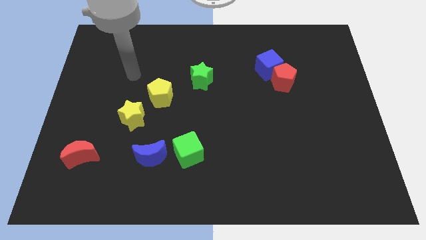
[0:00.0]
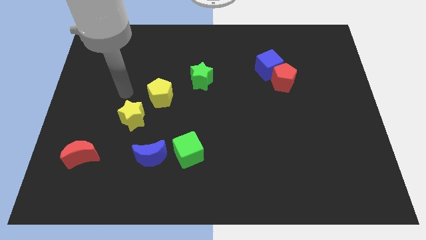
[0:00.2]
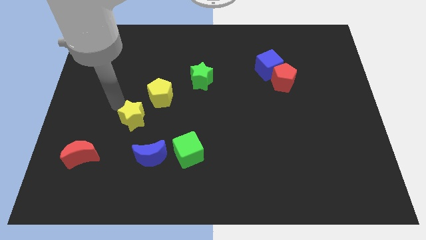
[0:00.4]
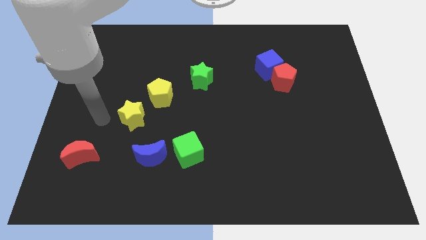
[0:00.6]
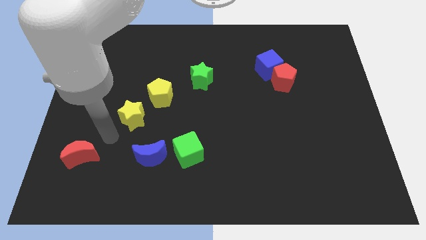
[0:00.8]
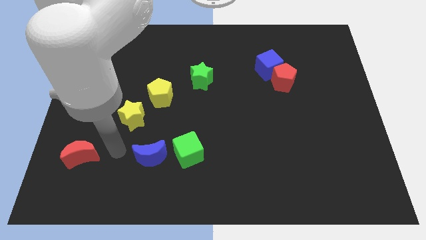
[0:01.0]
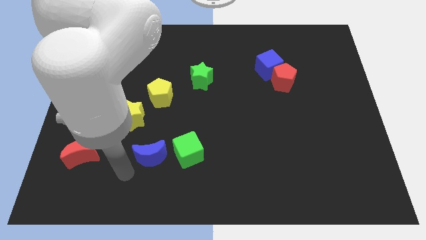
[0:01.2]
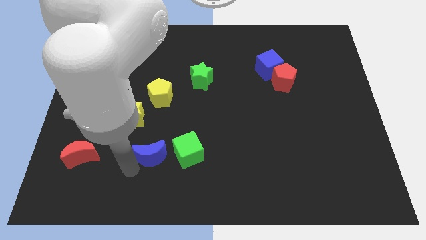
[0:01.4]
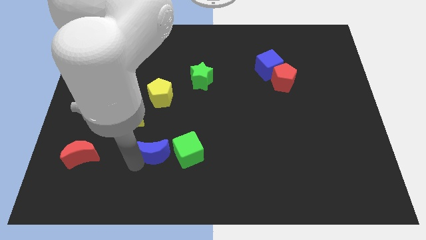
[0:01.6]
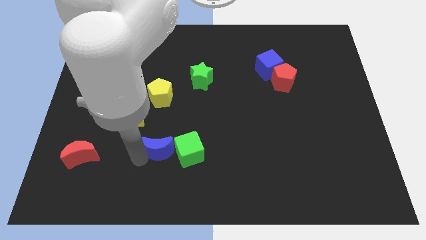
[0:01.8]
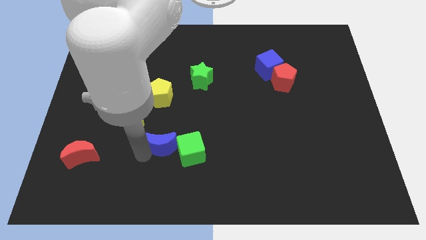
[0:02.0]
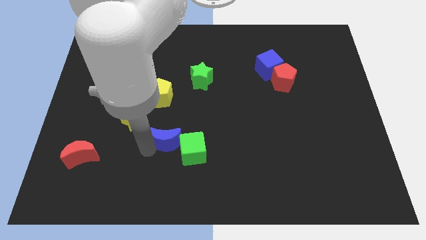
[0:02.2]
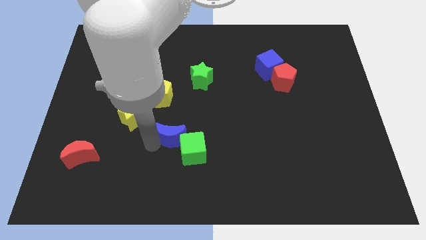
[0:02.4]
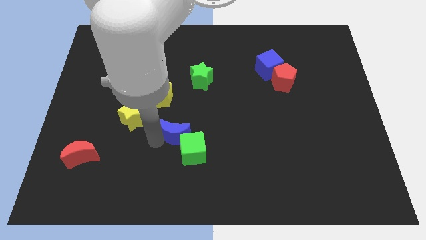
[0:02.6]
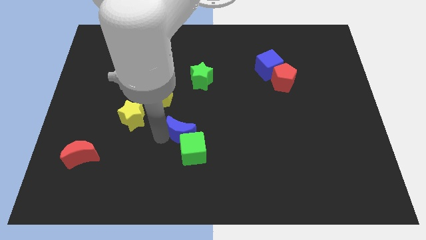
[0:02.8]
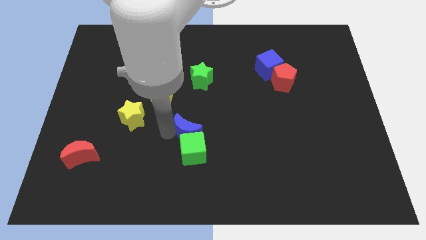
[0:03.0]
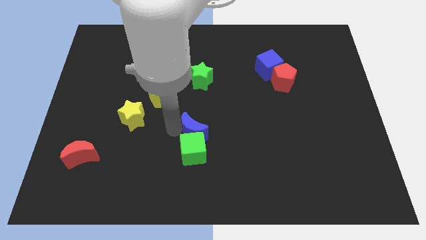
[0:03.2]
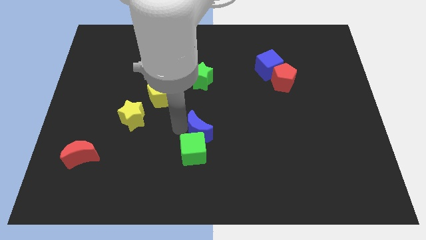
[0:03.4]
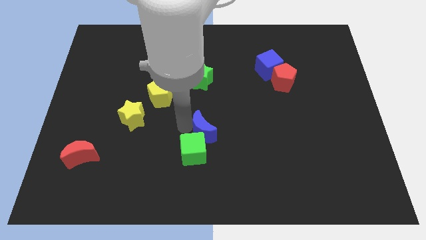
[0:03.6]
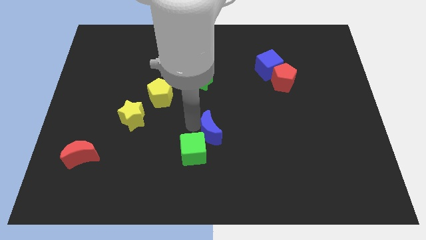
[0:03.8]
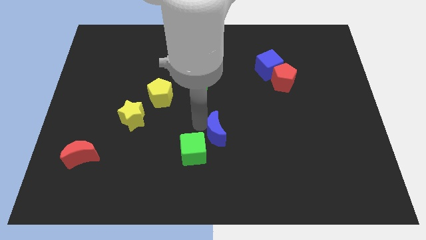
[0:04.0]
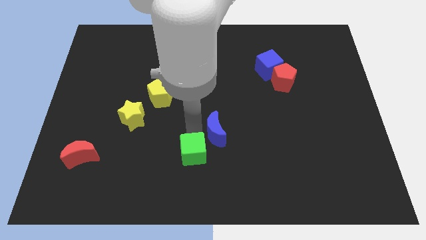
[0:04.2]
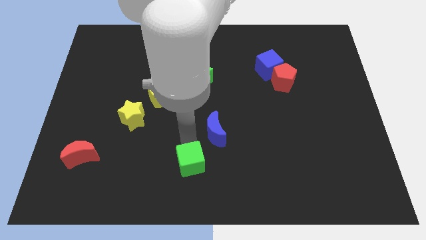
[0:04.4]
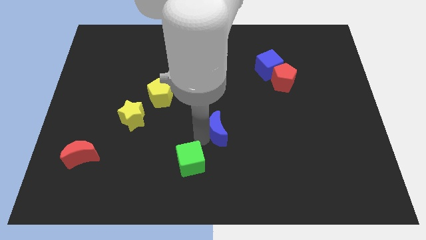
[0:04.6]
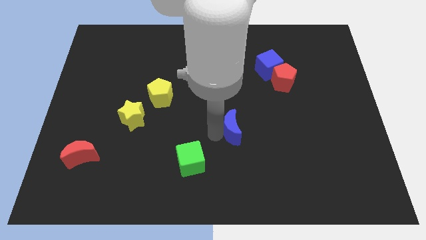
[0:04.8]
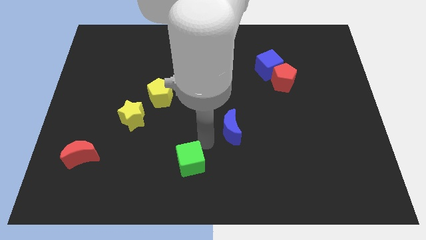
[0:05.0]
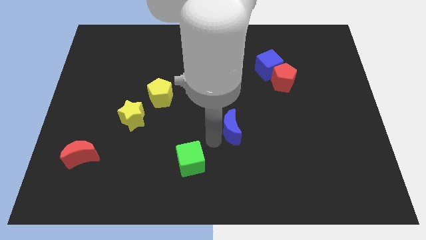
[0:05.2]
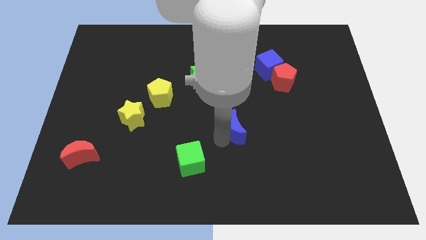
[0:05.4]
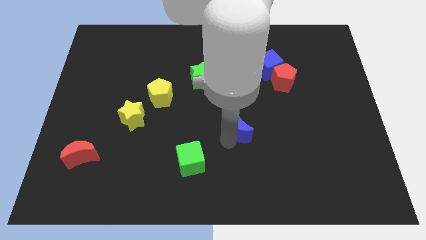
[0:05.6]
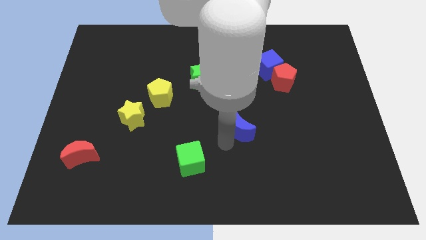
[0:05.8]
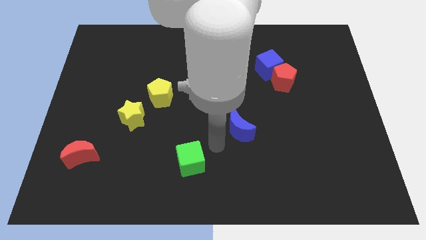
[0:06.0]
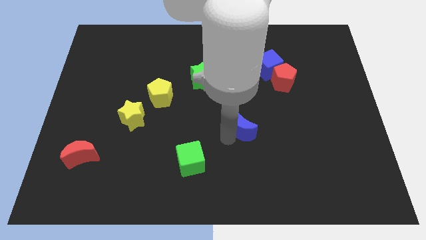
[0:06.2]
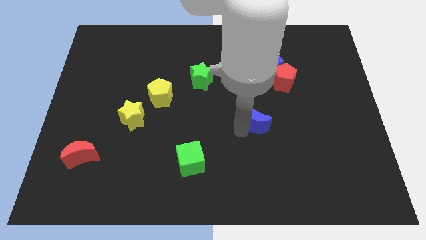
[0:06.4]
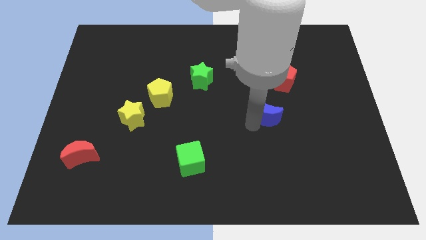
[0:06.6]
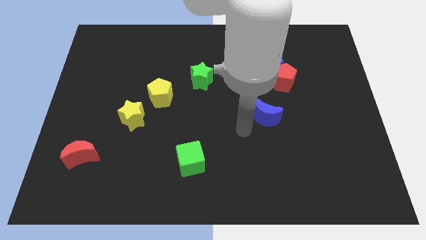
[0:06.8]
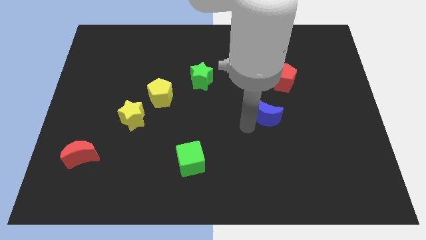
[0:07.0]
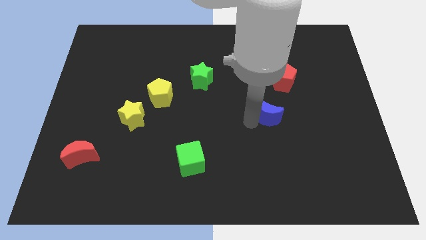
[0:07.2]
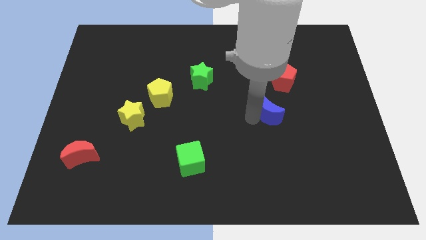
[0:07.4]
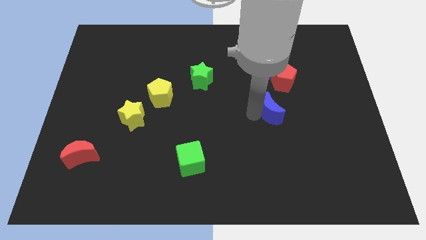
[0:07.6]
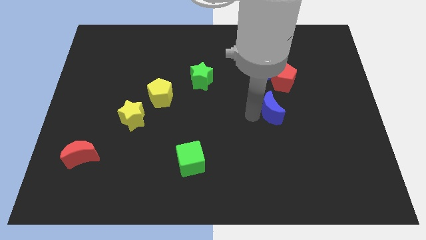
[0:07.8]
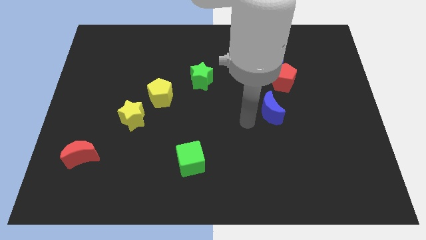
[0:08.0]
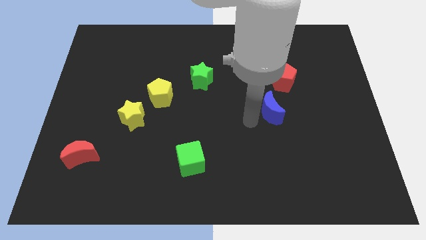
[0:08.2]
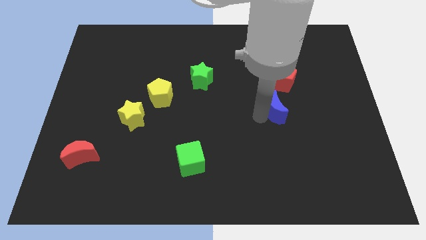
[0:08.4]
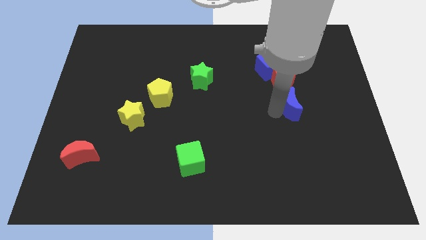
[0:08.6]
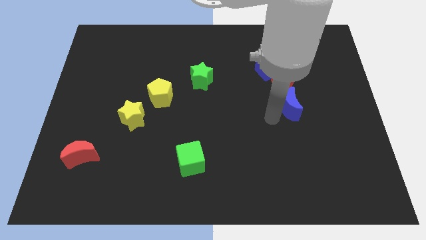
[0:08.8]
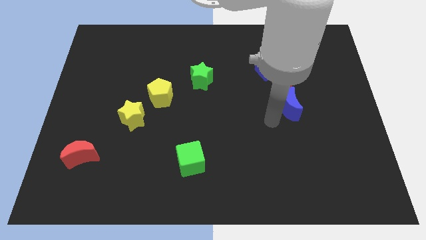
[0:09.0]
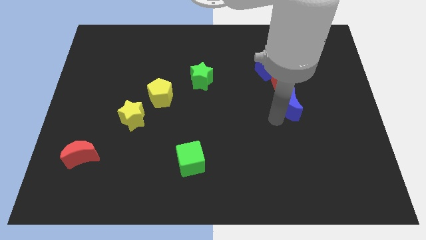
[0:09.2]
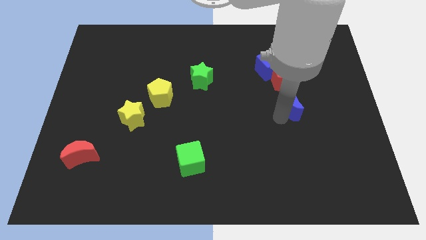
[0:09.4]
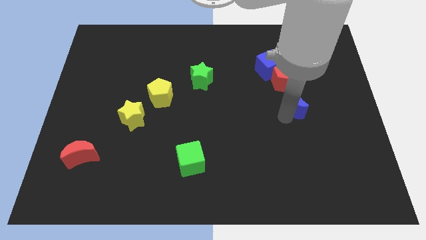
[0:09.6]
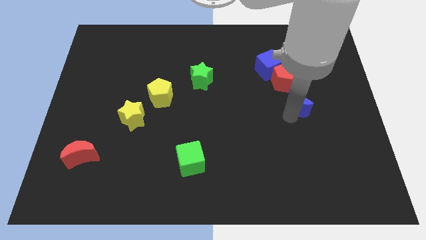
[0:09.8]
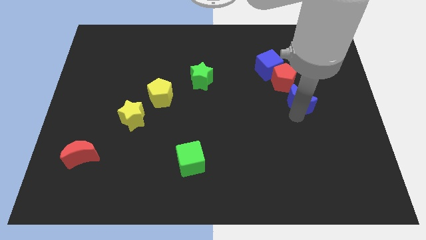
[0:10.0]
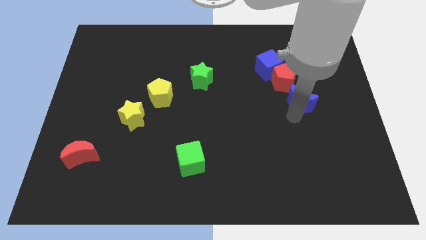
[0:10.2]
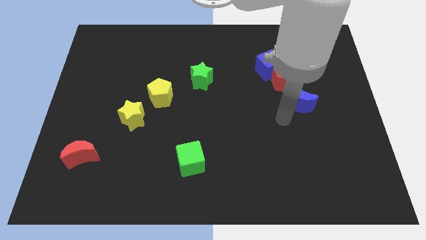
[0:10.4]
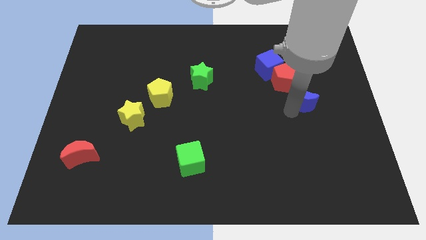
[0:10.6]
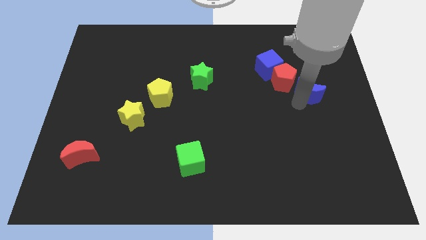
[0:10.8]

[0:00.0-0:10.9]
put the blue moon just right of the red pentagon
